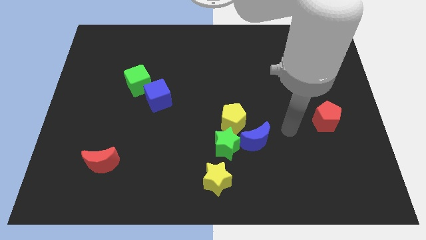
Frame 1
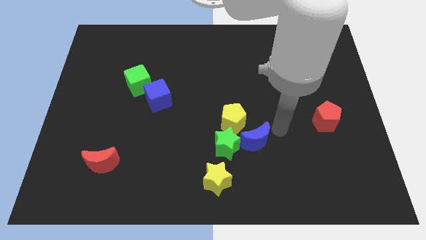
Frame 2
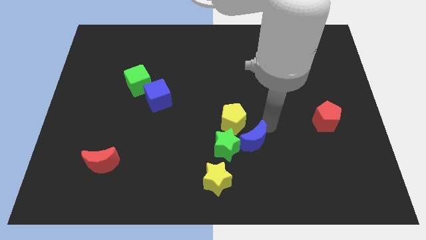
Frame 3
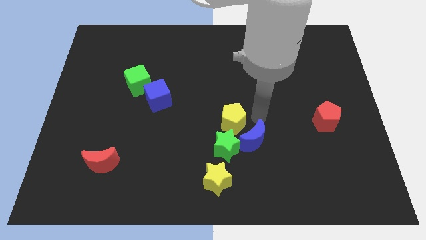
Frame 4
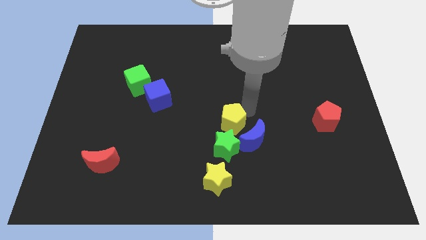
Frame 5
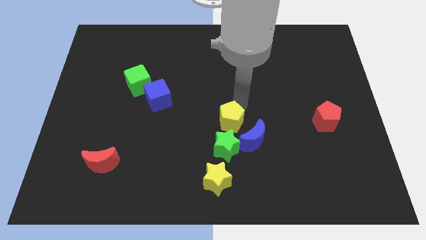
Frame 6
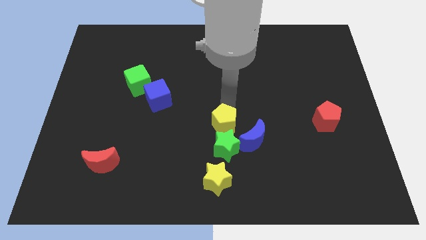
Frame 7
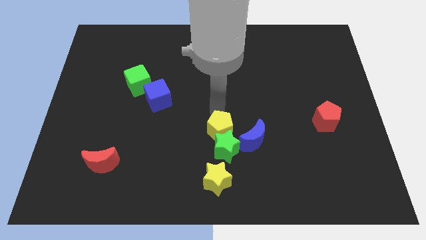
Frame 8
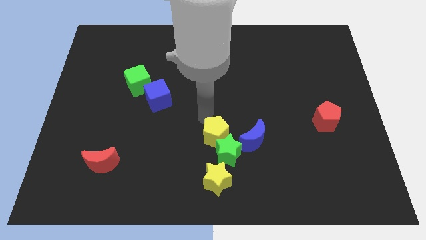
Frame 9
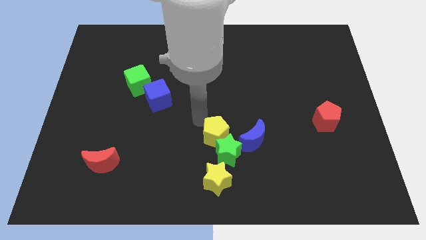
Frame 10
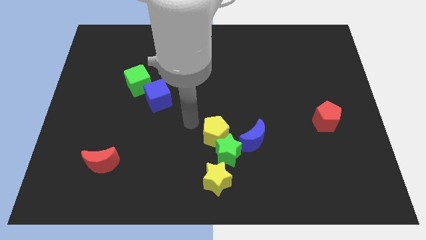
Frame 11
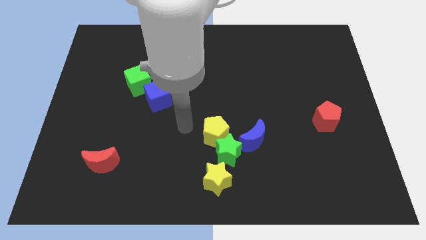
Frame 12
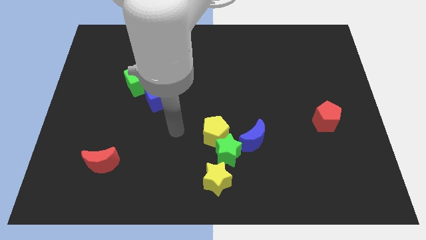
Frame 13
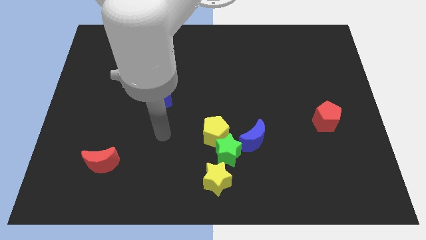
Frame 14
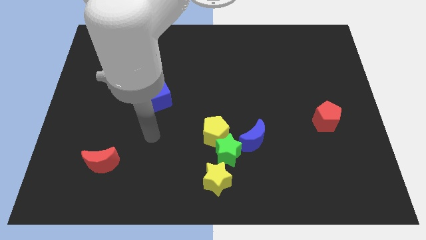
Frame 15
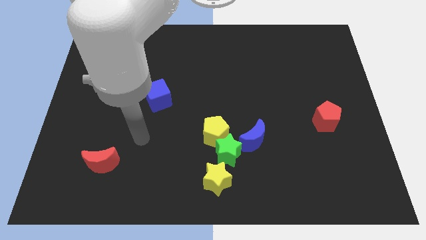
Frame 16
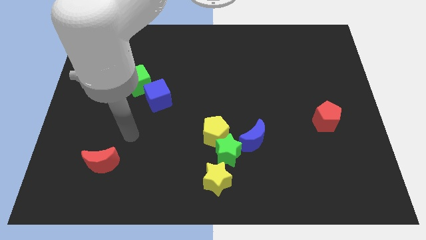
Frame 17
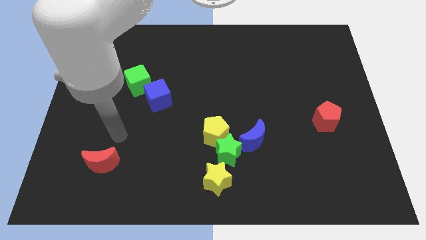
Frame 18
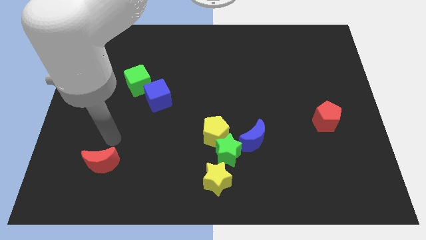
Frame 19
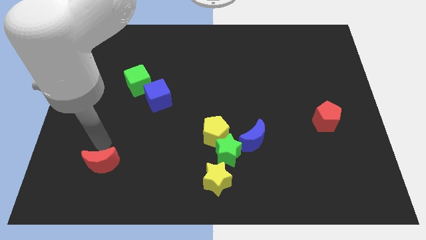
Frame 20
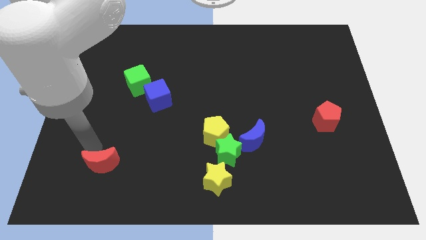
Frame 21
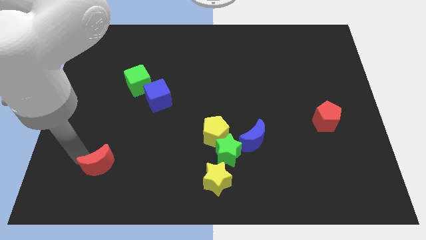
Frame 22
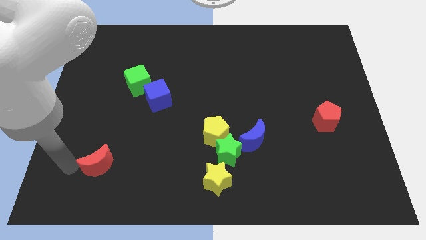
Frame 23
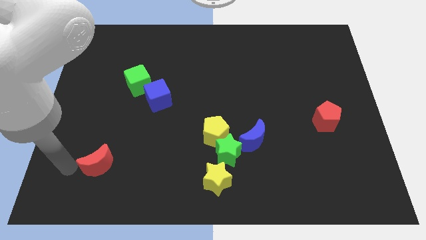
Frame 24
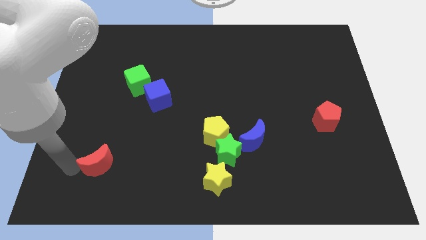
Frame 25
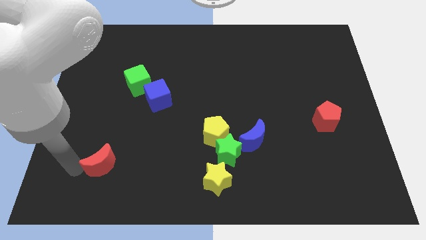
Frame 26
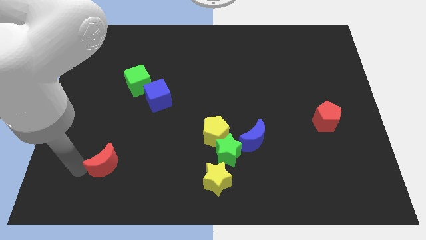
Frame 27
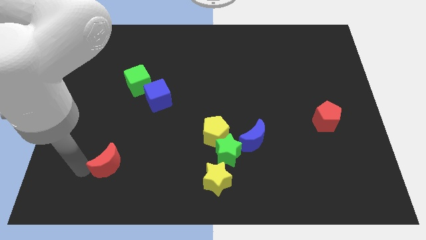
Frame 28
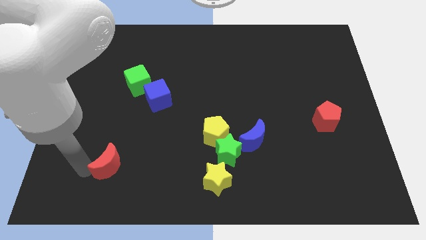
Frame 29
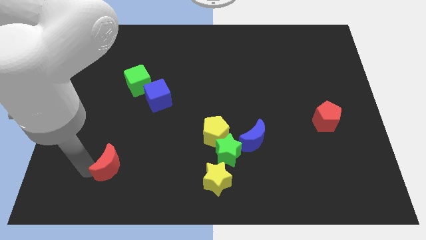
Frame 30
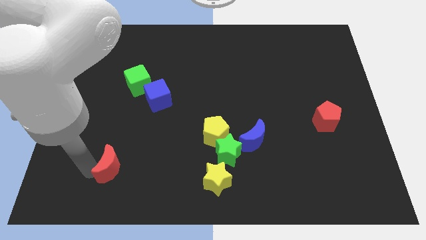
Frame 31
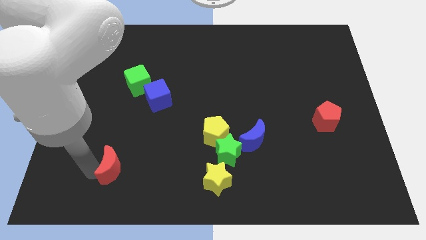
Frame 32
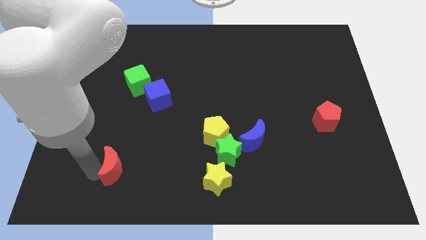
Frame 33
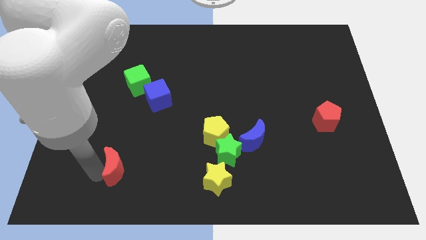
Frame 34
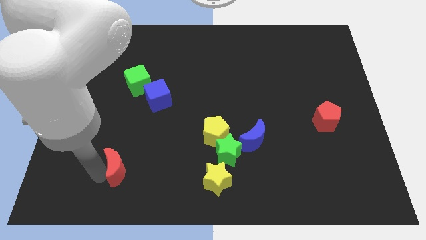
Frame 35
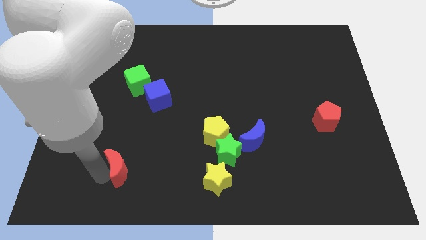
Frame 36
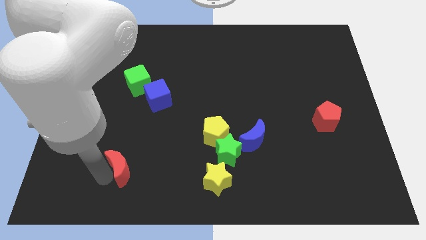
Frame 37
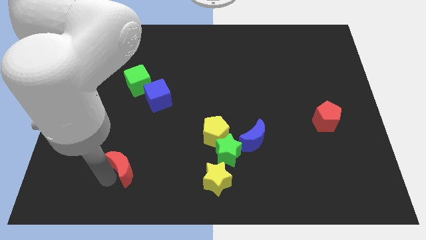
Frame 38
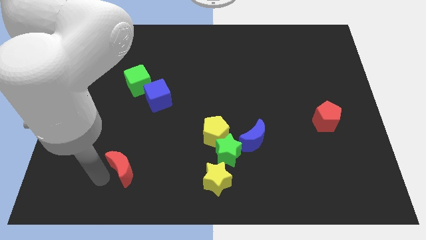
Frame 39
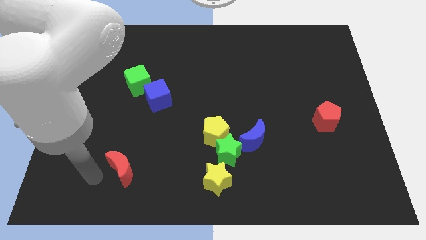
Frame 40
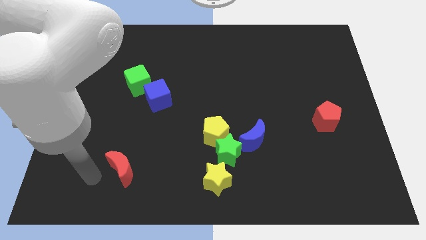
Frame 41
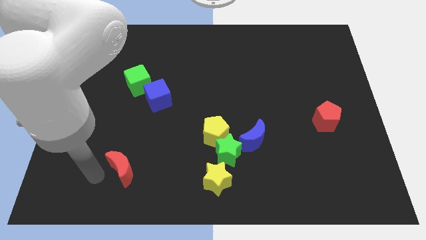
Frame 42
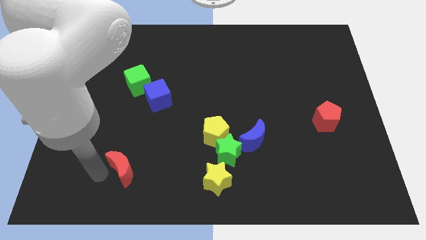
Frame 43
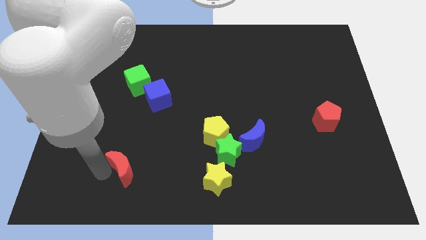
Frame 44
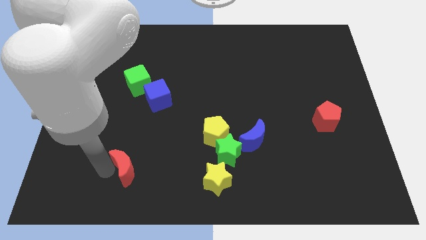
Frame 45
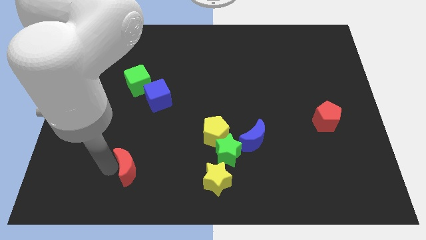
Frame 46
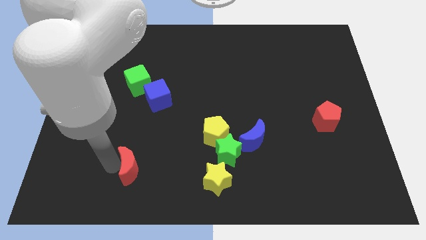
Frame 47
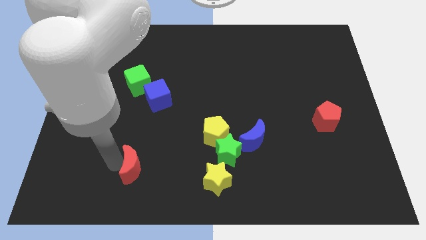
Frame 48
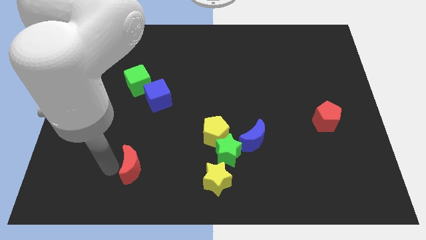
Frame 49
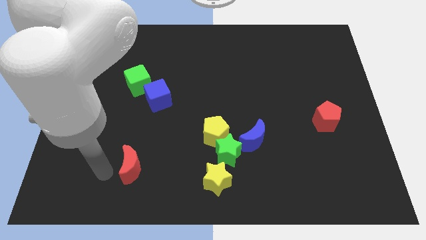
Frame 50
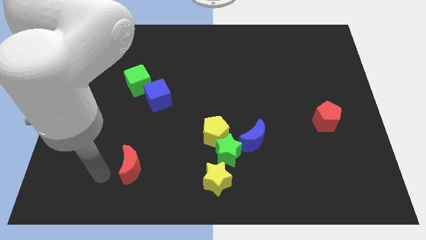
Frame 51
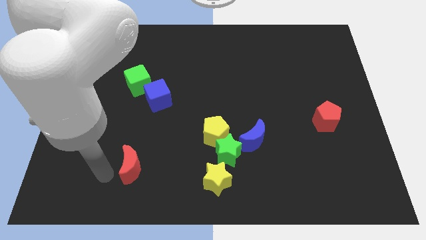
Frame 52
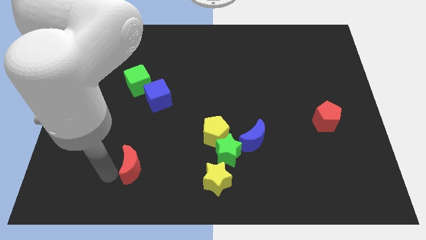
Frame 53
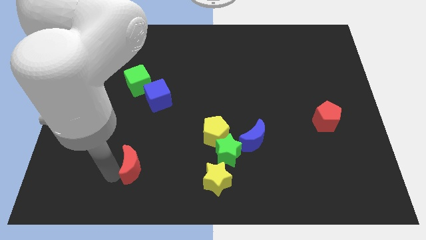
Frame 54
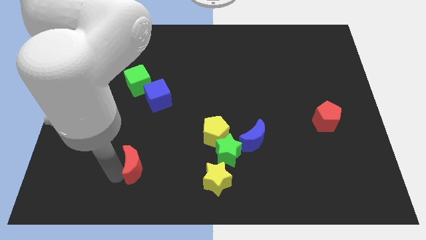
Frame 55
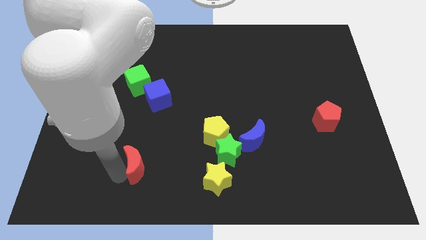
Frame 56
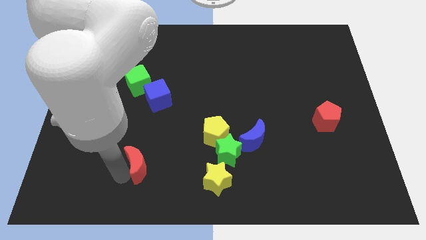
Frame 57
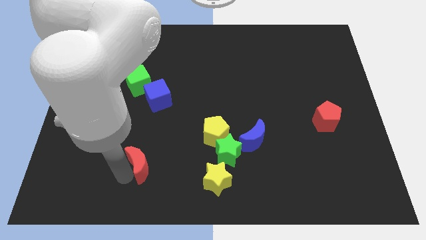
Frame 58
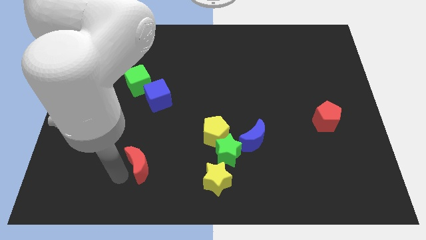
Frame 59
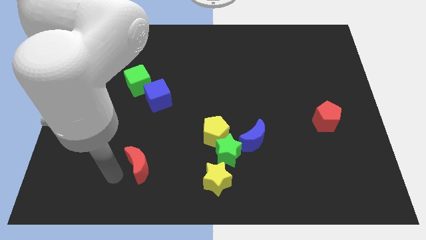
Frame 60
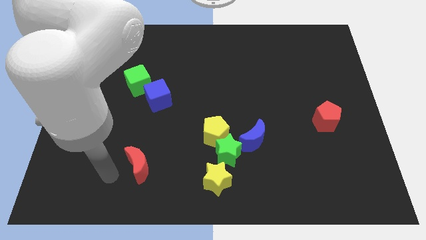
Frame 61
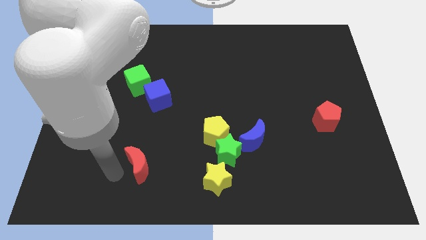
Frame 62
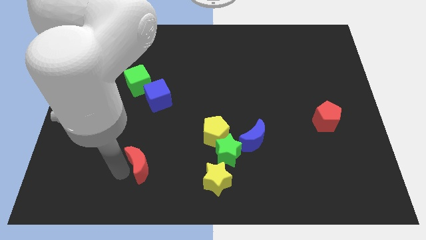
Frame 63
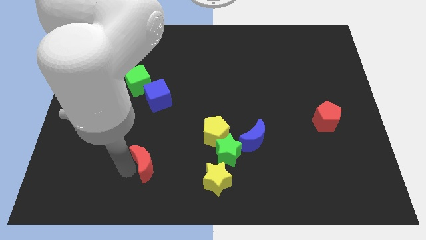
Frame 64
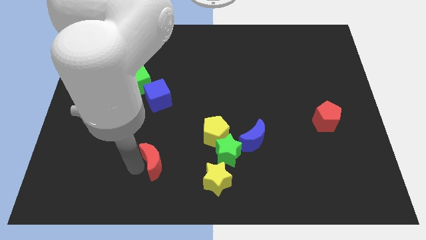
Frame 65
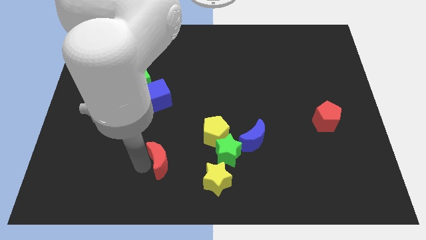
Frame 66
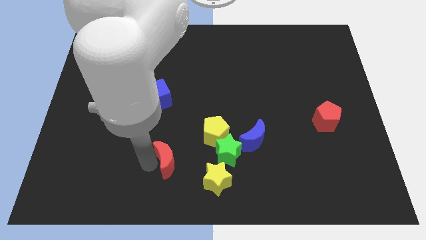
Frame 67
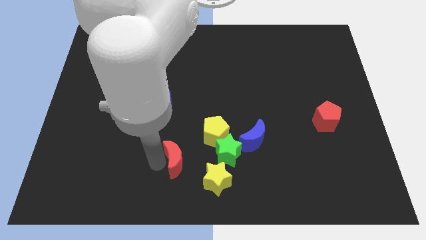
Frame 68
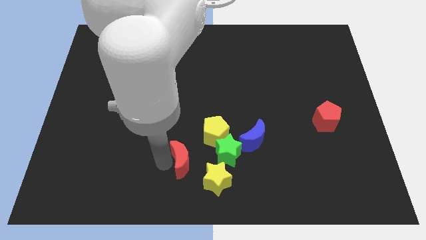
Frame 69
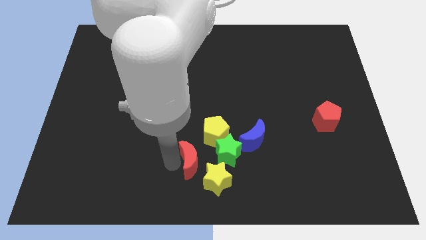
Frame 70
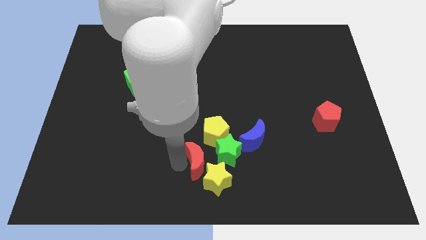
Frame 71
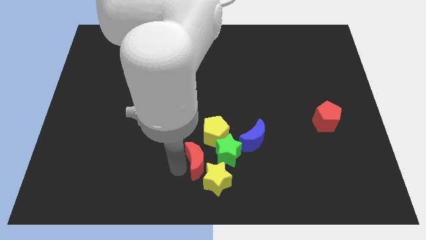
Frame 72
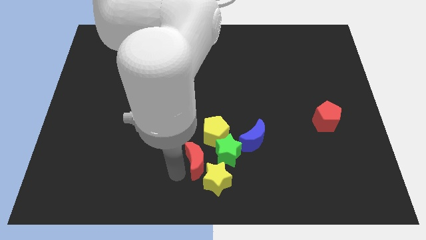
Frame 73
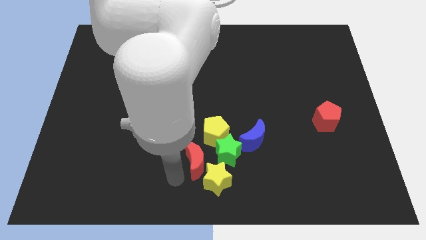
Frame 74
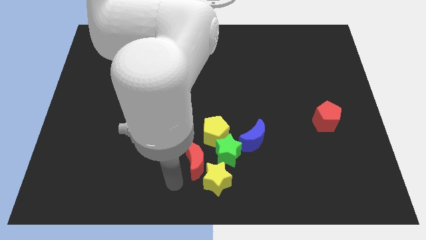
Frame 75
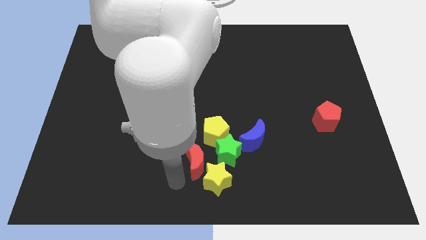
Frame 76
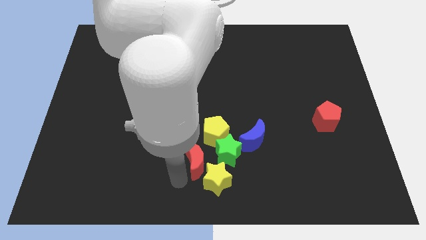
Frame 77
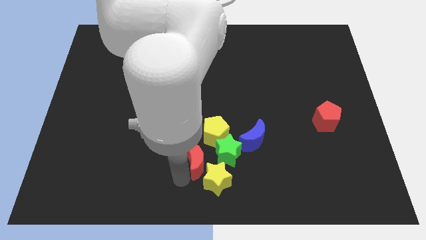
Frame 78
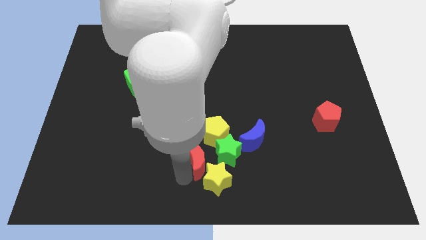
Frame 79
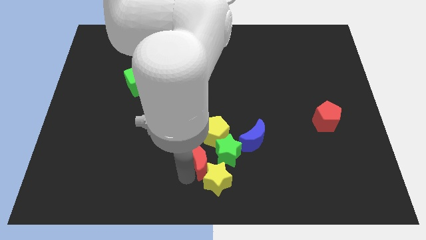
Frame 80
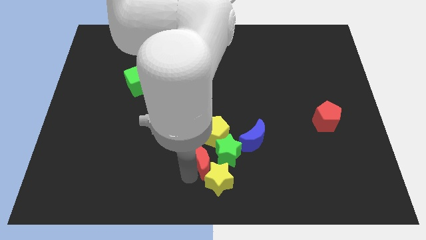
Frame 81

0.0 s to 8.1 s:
push the red moon towards the green star
